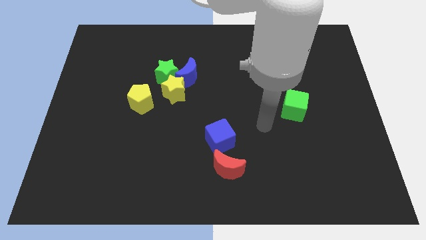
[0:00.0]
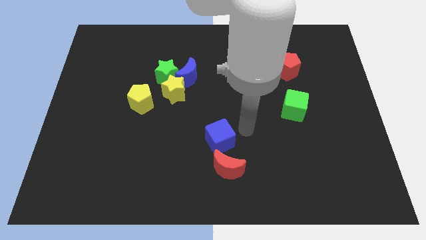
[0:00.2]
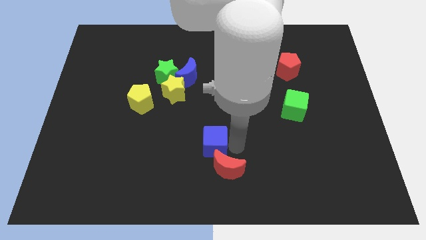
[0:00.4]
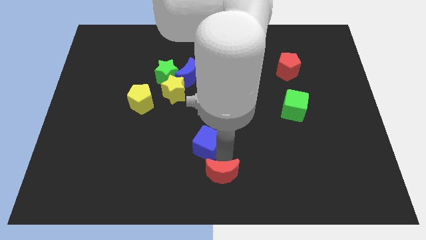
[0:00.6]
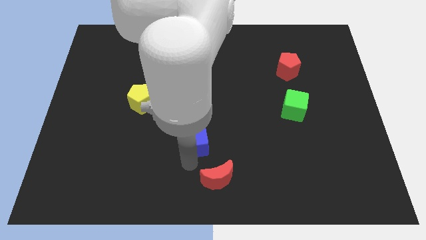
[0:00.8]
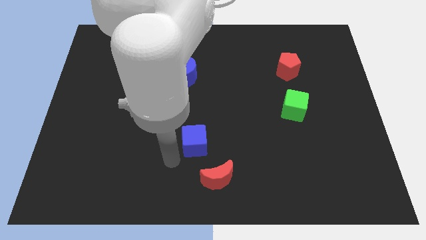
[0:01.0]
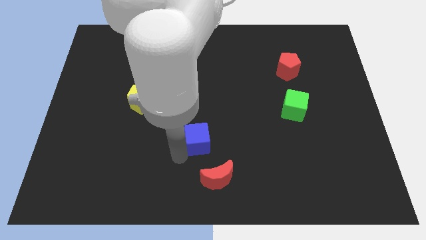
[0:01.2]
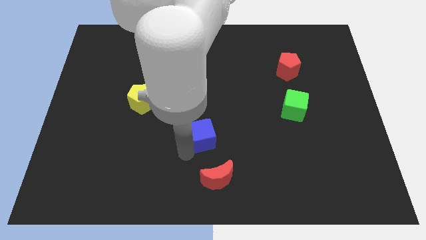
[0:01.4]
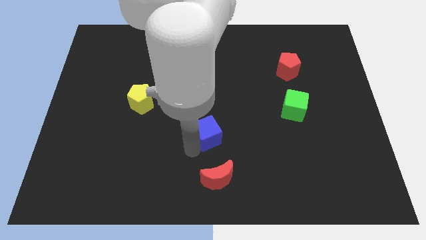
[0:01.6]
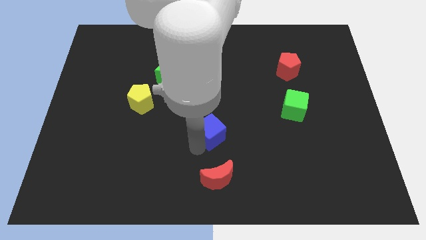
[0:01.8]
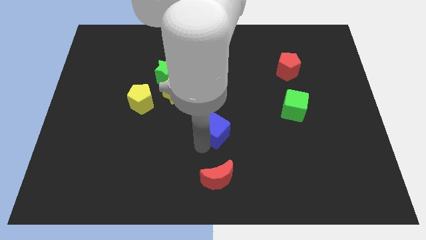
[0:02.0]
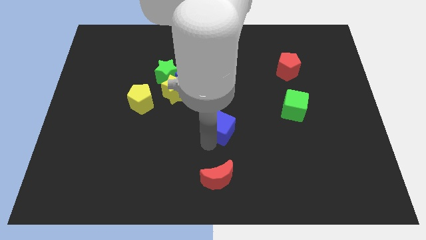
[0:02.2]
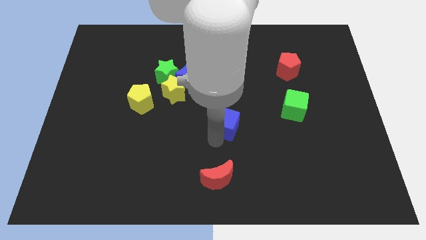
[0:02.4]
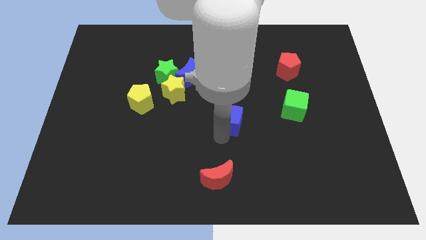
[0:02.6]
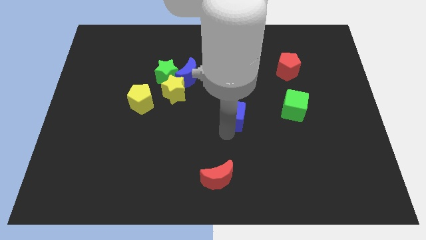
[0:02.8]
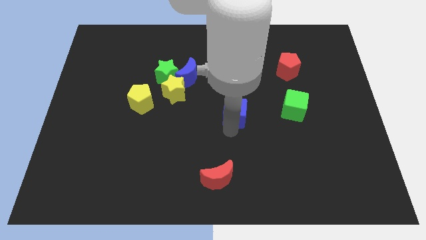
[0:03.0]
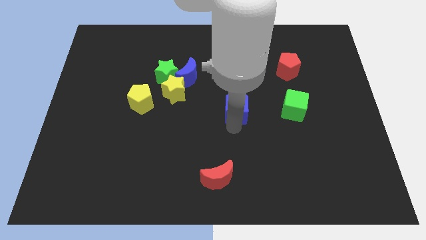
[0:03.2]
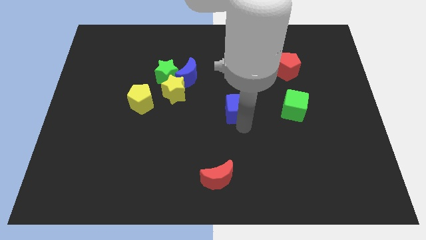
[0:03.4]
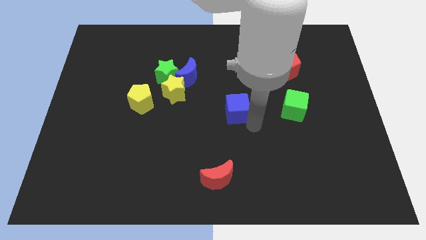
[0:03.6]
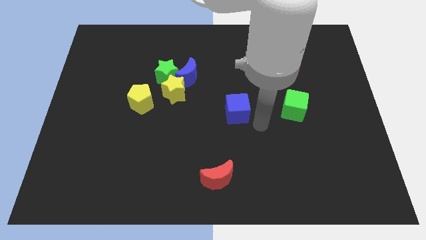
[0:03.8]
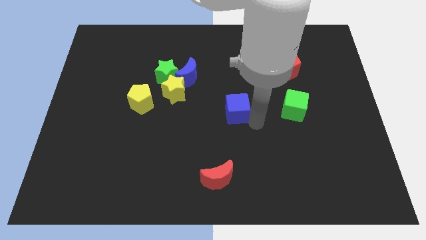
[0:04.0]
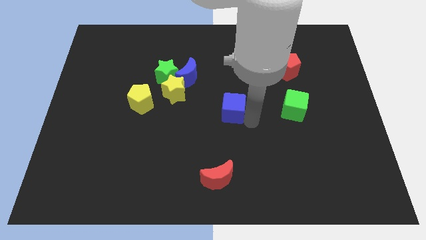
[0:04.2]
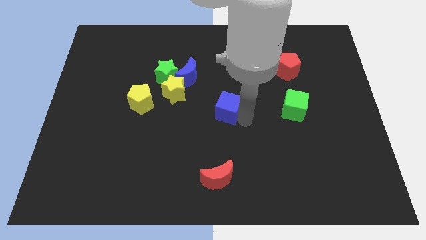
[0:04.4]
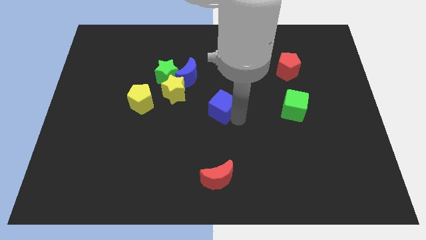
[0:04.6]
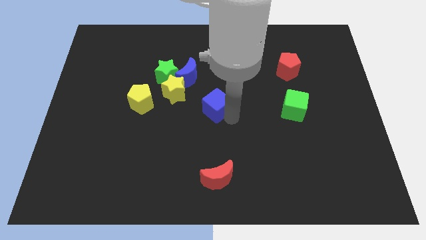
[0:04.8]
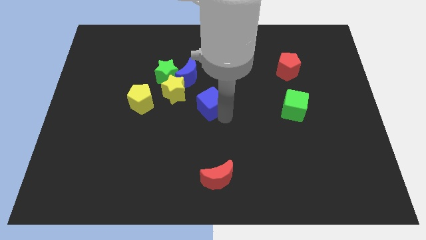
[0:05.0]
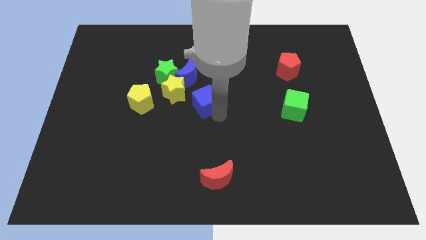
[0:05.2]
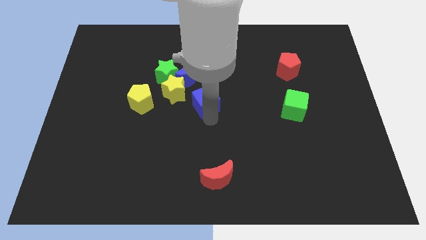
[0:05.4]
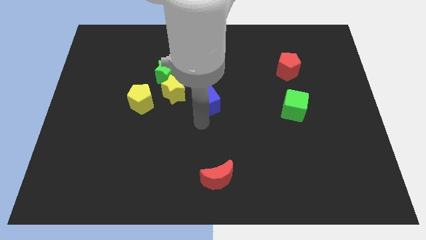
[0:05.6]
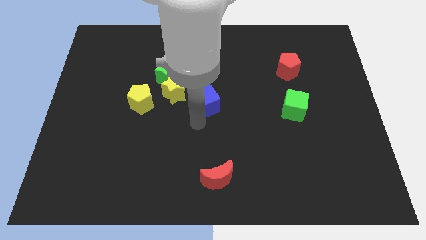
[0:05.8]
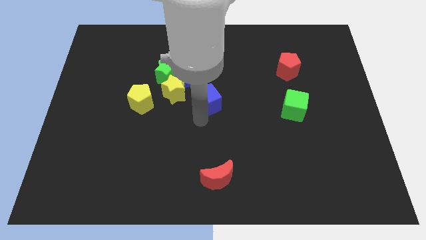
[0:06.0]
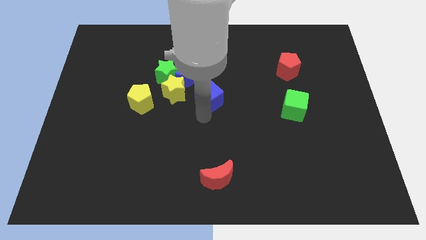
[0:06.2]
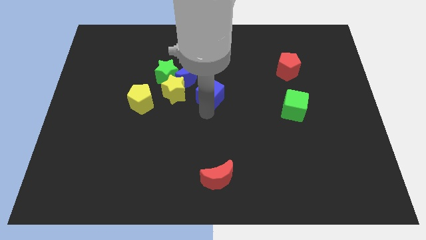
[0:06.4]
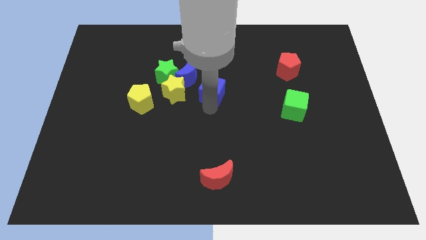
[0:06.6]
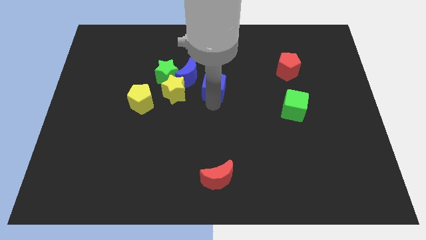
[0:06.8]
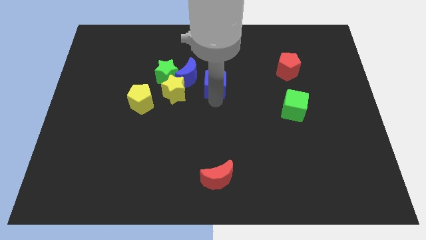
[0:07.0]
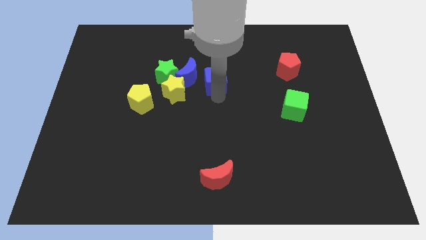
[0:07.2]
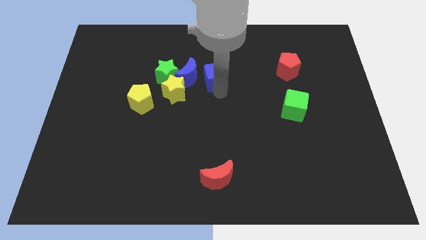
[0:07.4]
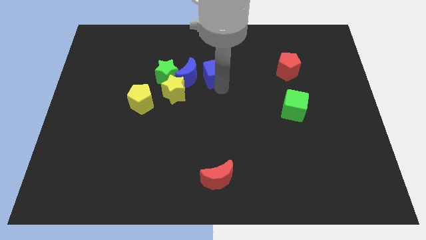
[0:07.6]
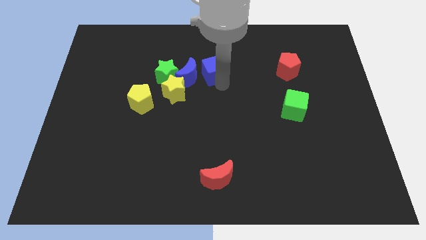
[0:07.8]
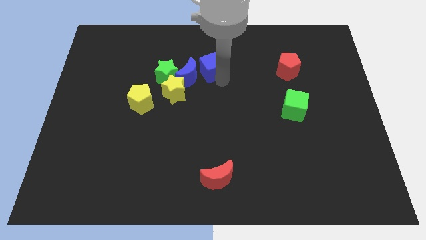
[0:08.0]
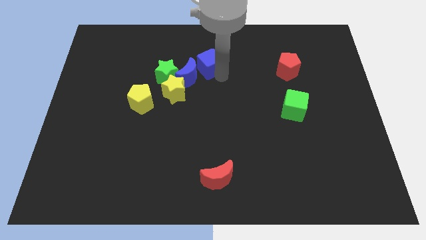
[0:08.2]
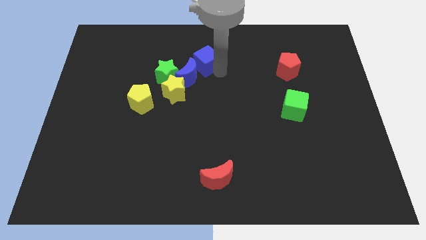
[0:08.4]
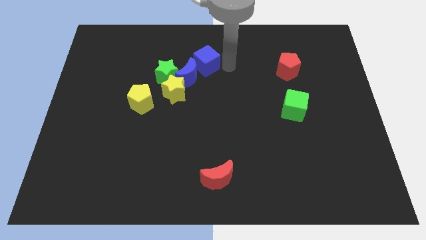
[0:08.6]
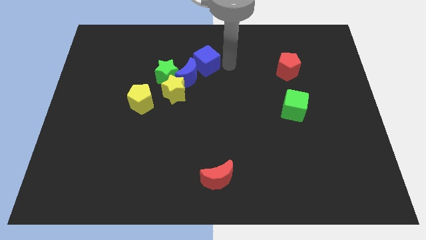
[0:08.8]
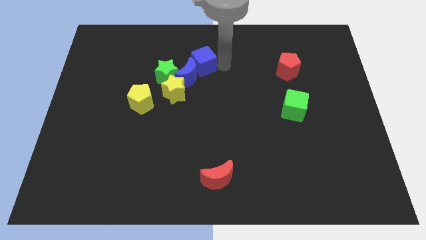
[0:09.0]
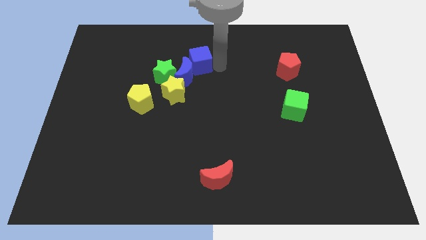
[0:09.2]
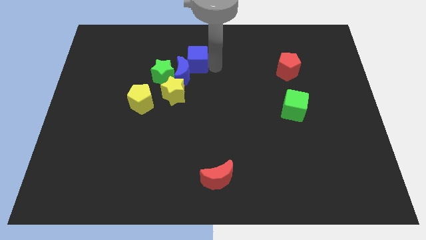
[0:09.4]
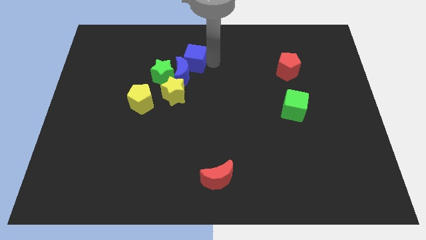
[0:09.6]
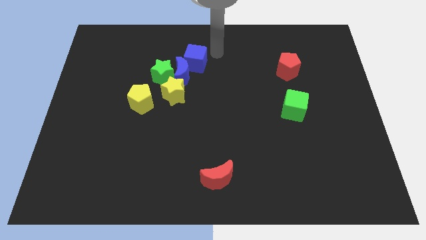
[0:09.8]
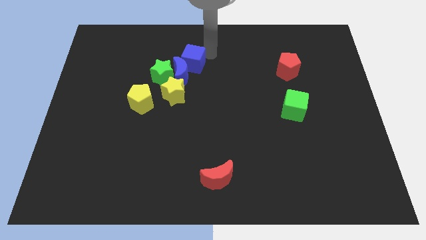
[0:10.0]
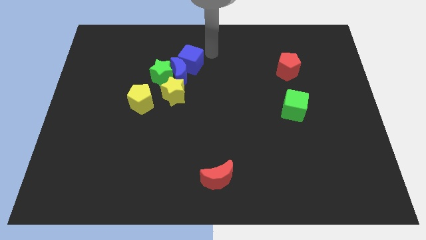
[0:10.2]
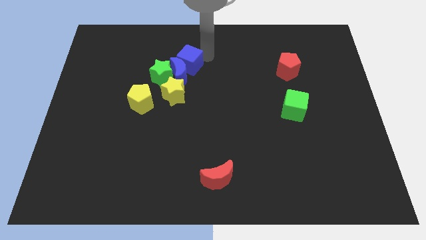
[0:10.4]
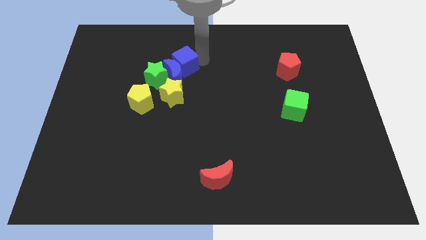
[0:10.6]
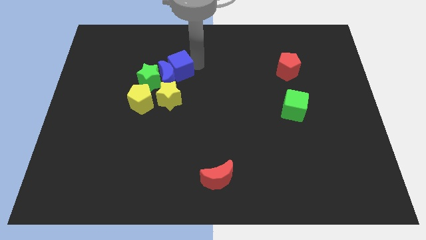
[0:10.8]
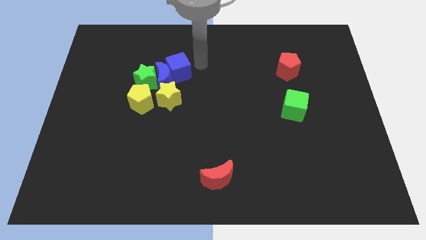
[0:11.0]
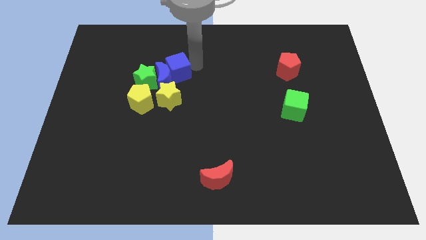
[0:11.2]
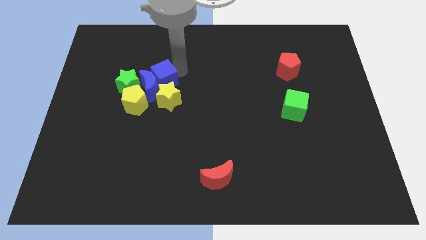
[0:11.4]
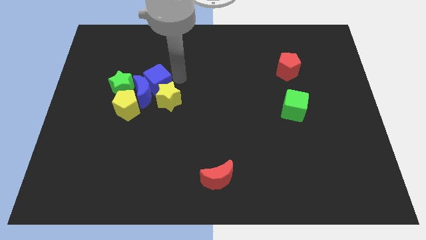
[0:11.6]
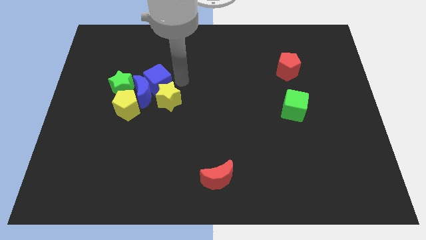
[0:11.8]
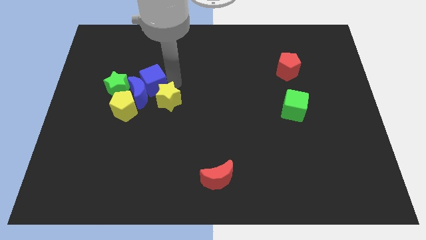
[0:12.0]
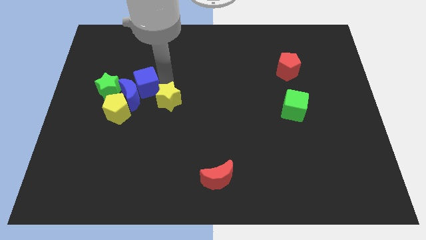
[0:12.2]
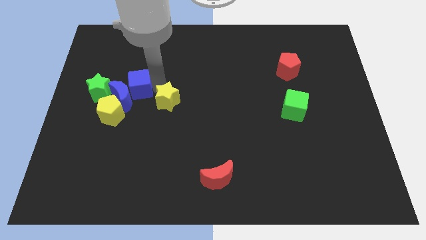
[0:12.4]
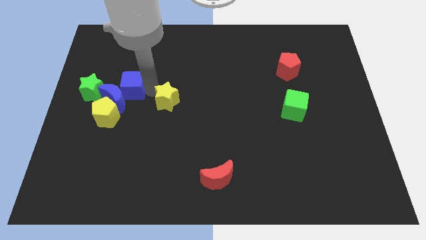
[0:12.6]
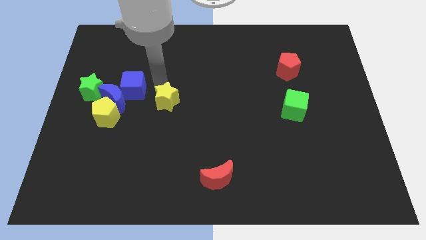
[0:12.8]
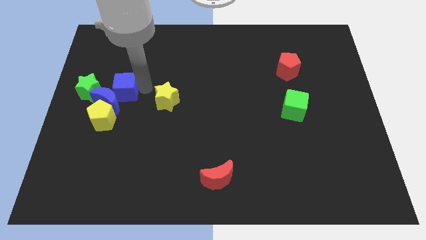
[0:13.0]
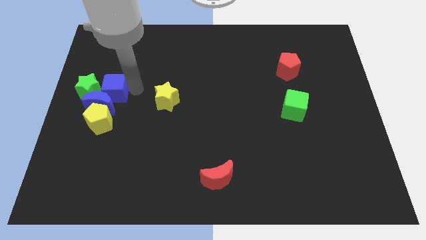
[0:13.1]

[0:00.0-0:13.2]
put the blue cube close to the green star

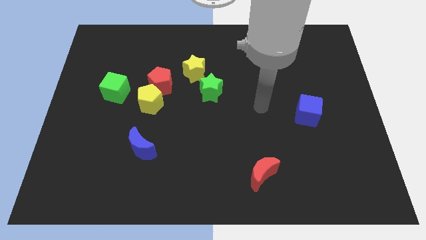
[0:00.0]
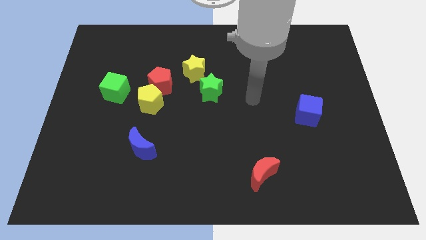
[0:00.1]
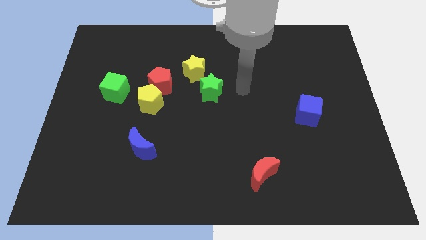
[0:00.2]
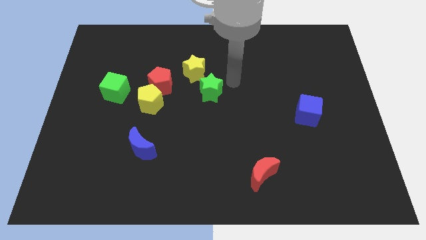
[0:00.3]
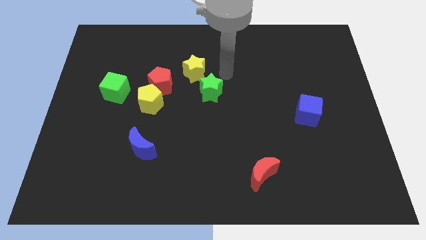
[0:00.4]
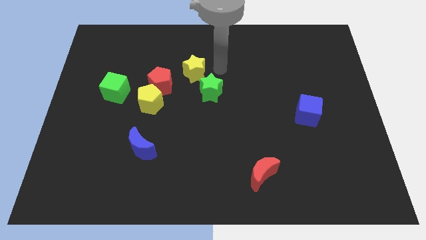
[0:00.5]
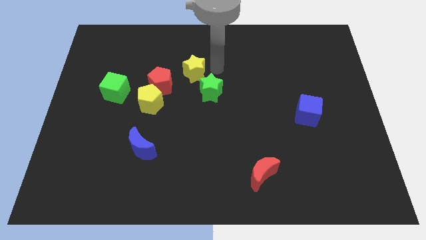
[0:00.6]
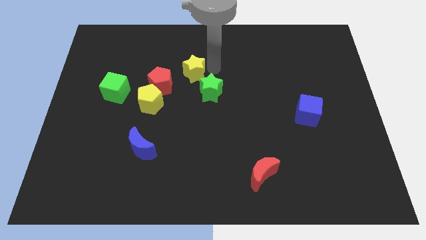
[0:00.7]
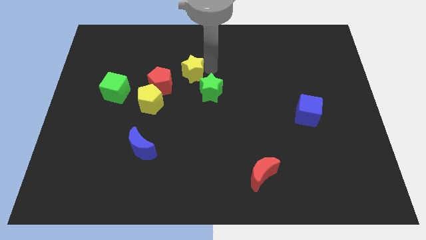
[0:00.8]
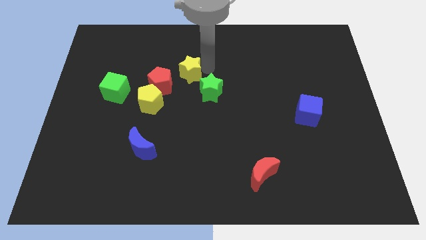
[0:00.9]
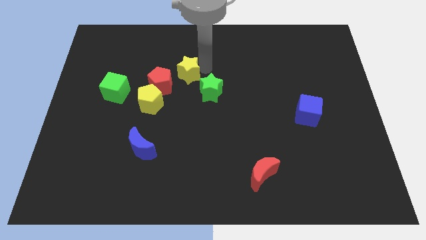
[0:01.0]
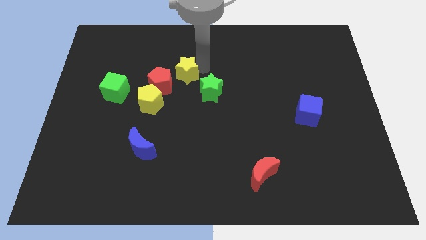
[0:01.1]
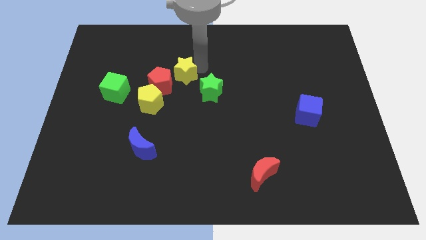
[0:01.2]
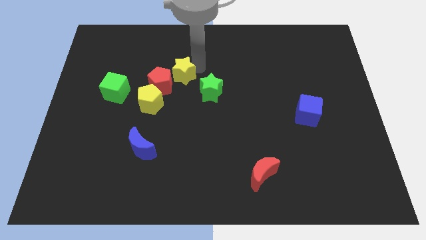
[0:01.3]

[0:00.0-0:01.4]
slide the yellow star to the red pentagon
